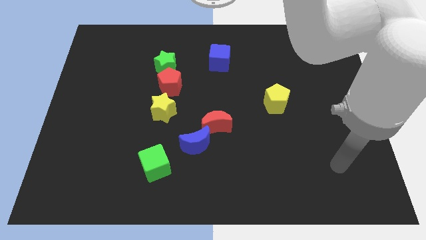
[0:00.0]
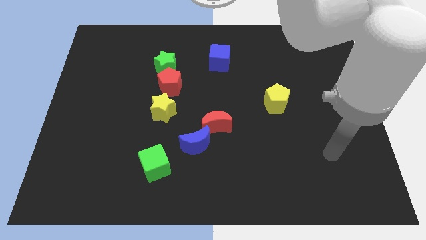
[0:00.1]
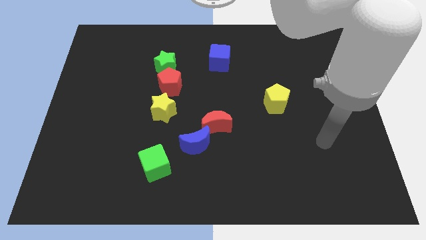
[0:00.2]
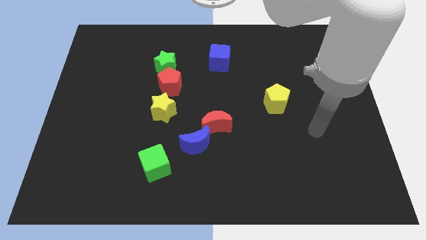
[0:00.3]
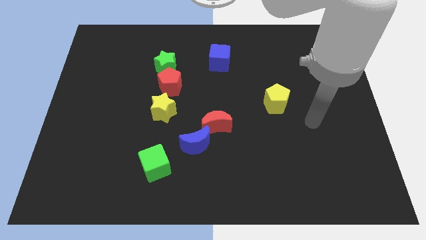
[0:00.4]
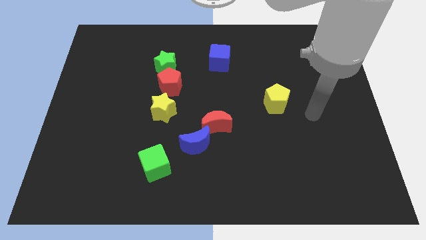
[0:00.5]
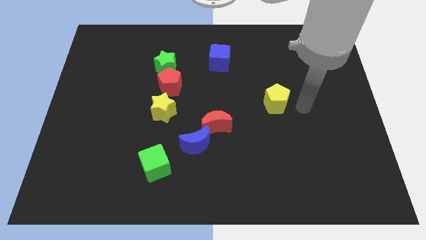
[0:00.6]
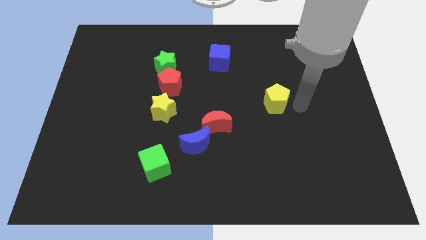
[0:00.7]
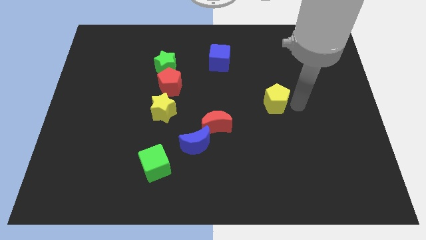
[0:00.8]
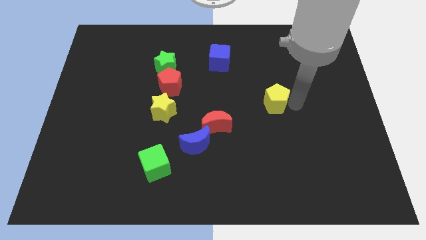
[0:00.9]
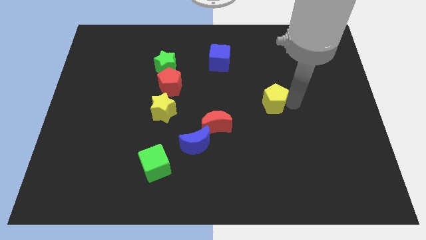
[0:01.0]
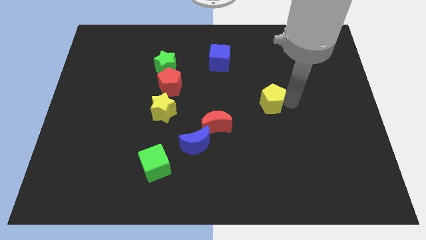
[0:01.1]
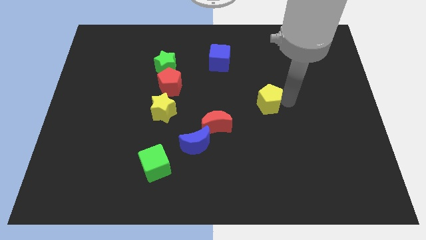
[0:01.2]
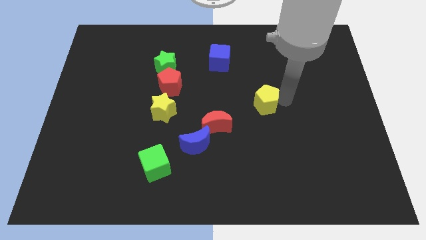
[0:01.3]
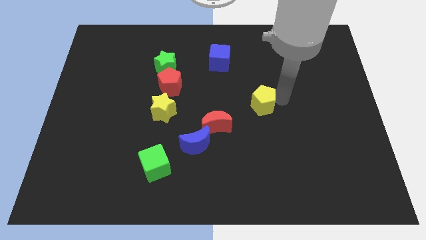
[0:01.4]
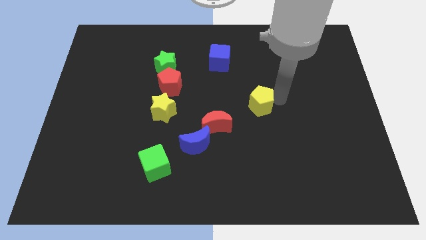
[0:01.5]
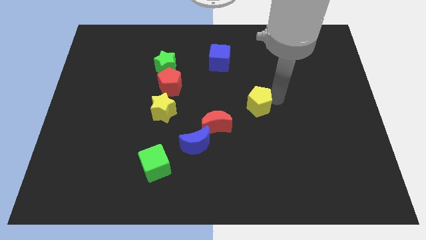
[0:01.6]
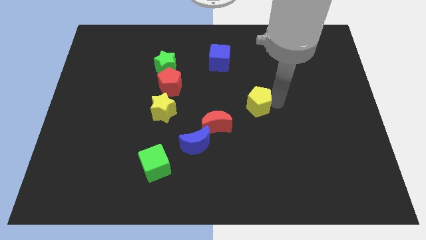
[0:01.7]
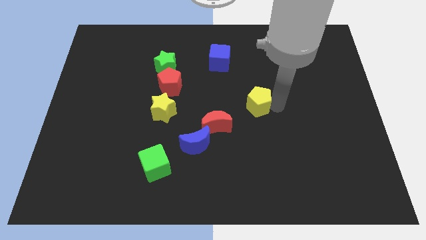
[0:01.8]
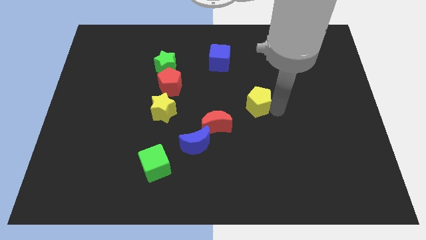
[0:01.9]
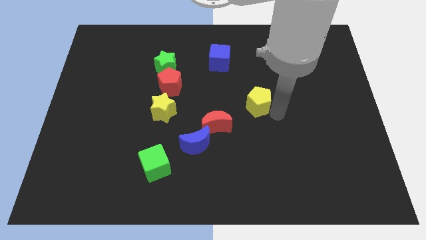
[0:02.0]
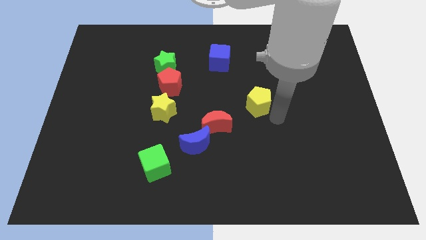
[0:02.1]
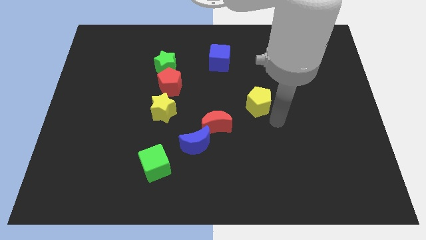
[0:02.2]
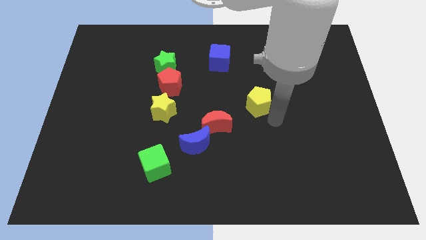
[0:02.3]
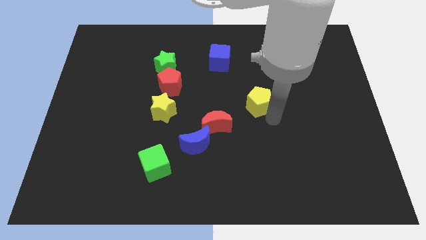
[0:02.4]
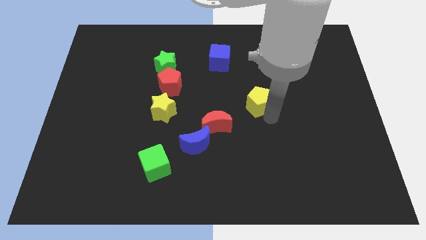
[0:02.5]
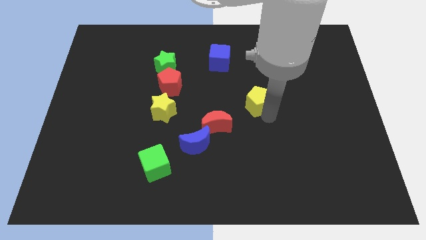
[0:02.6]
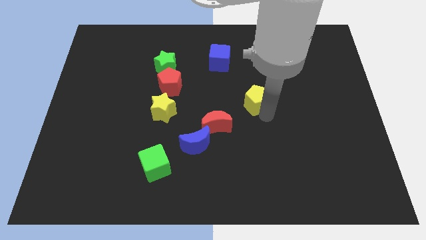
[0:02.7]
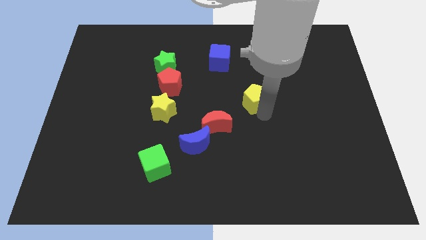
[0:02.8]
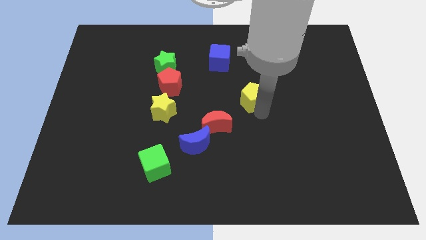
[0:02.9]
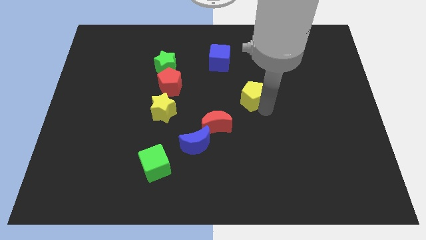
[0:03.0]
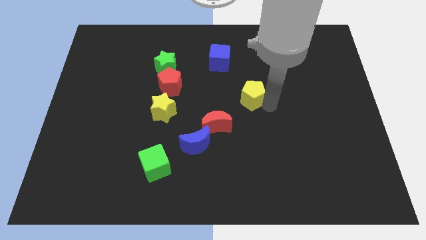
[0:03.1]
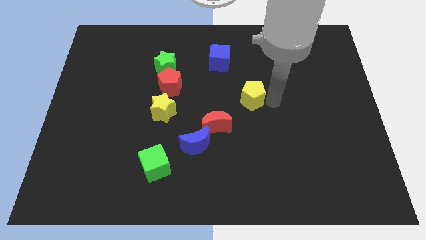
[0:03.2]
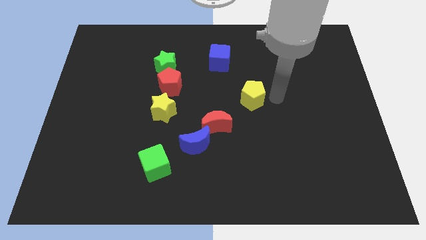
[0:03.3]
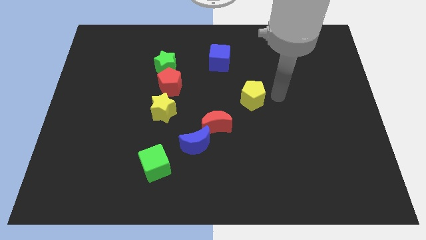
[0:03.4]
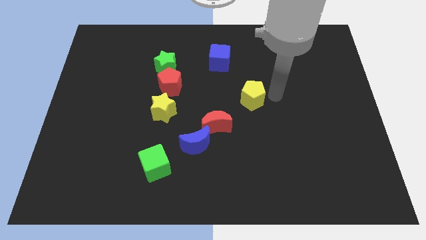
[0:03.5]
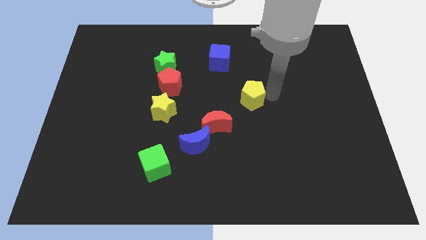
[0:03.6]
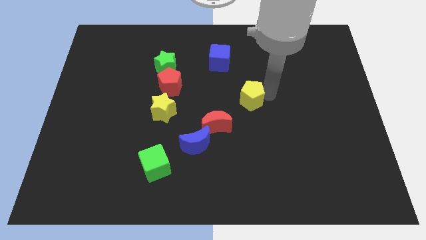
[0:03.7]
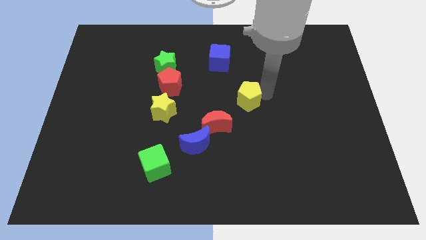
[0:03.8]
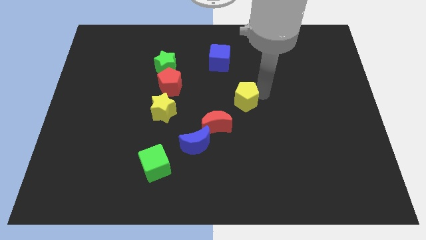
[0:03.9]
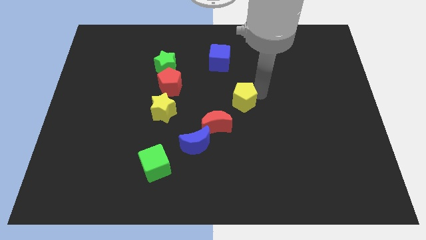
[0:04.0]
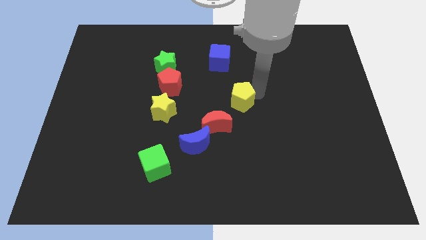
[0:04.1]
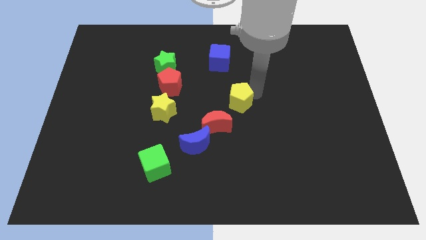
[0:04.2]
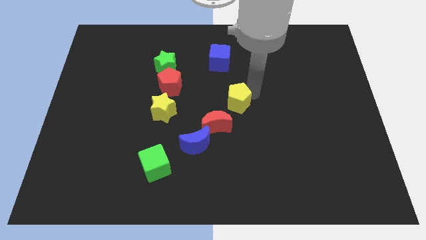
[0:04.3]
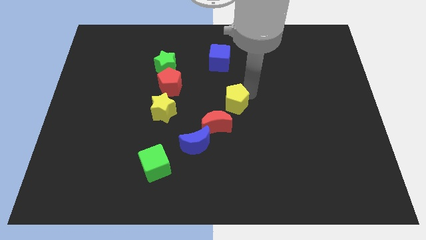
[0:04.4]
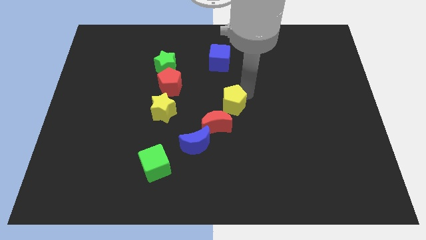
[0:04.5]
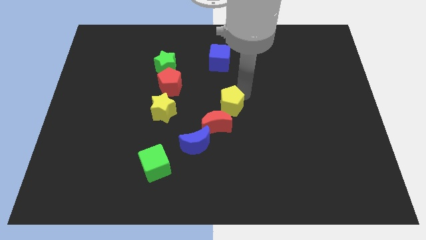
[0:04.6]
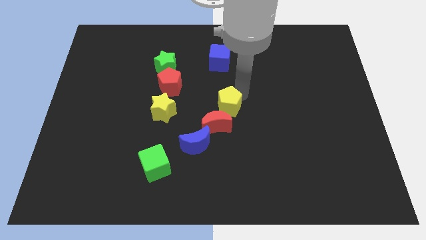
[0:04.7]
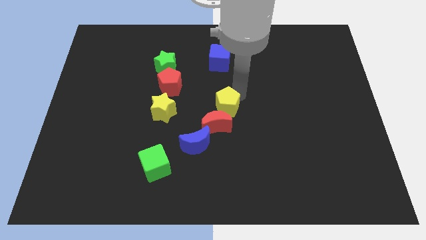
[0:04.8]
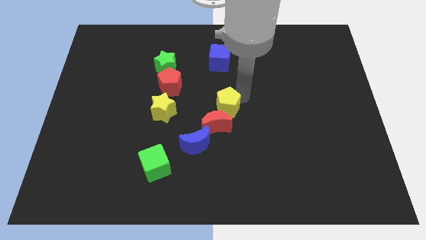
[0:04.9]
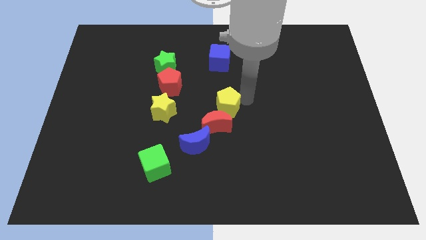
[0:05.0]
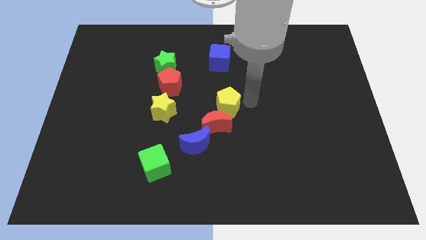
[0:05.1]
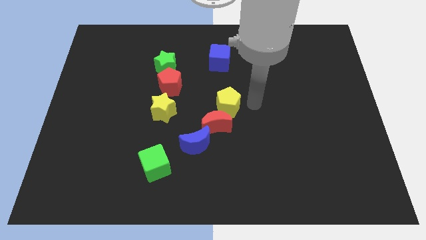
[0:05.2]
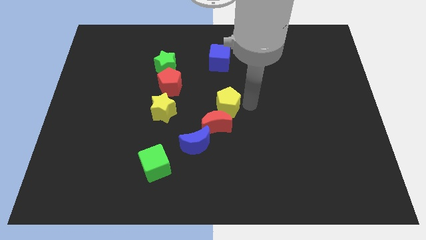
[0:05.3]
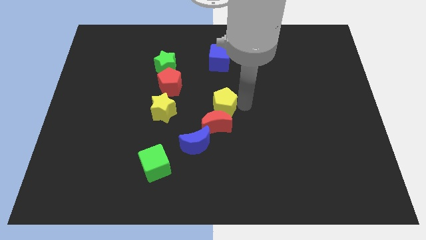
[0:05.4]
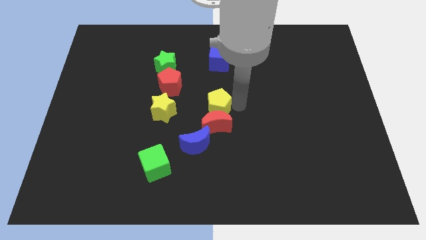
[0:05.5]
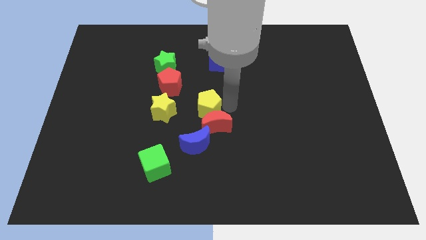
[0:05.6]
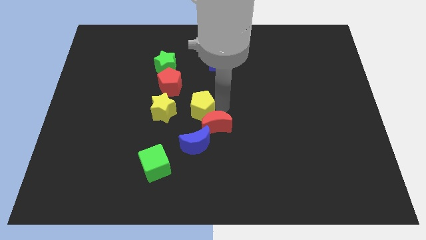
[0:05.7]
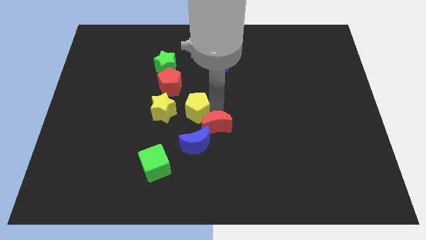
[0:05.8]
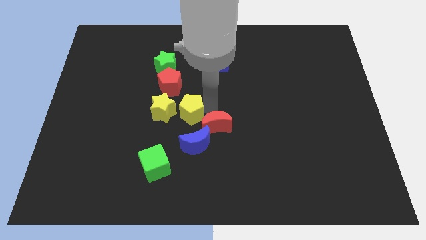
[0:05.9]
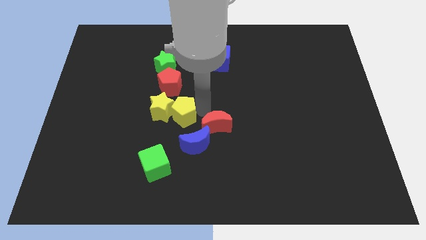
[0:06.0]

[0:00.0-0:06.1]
put the yellow pentagon close to the yellow star

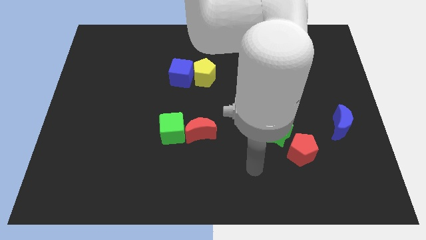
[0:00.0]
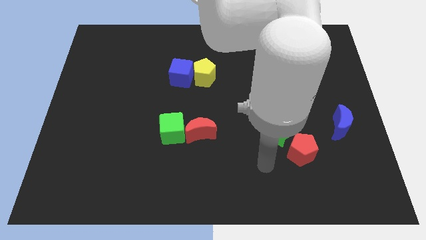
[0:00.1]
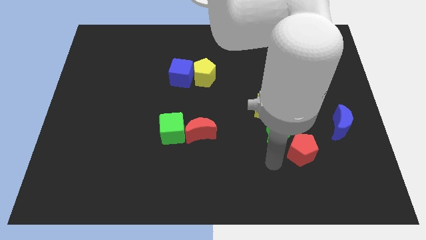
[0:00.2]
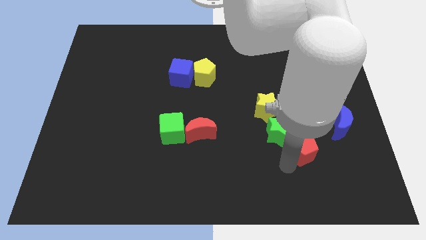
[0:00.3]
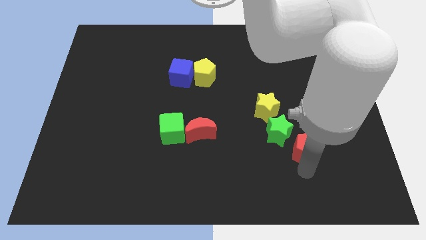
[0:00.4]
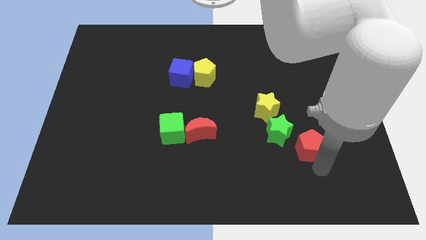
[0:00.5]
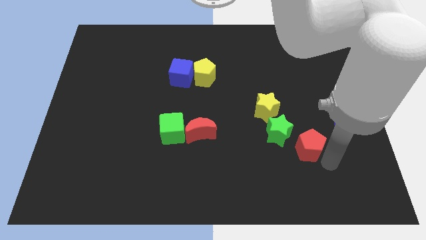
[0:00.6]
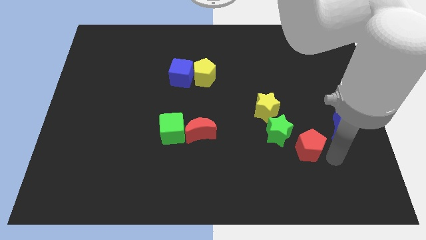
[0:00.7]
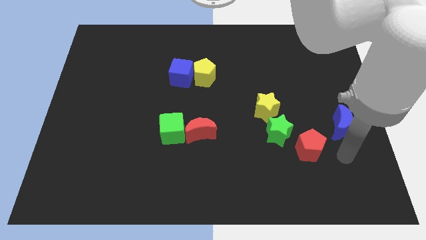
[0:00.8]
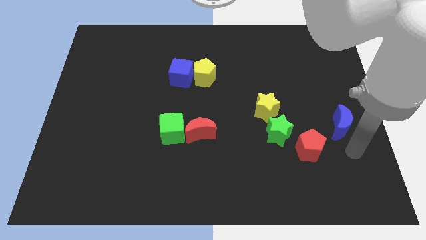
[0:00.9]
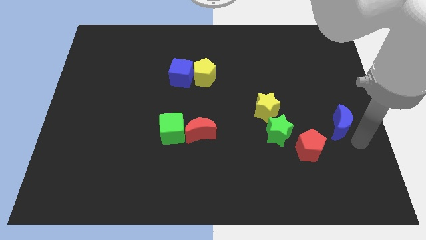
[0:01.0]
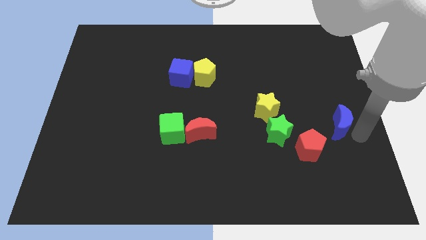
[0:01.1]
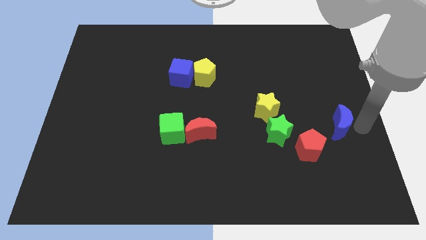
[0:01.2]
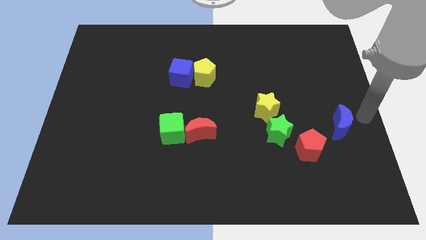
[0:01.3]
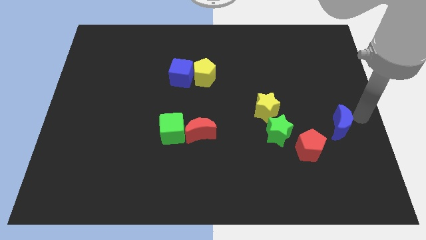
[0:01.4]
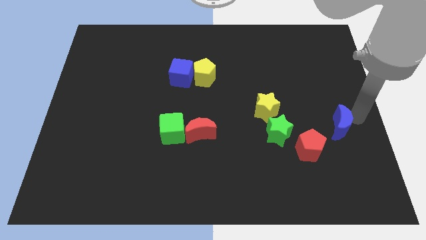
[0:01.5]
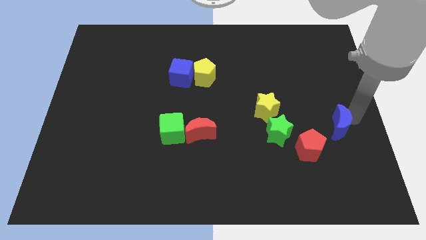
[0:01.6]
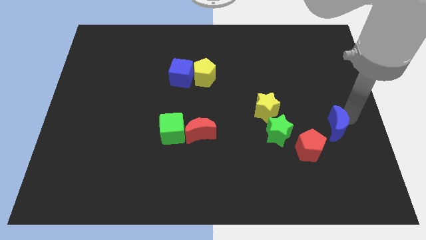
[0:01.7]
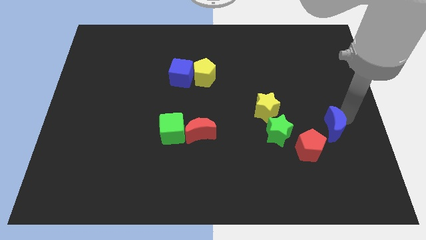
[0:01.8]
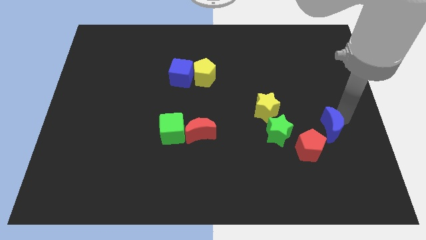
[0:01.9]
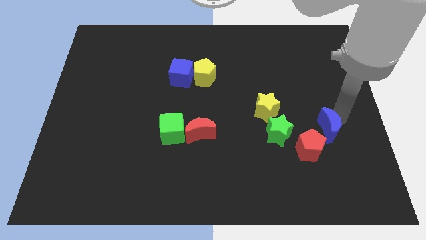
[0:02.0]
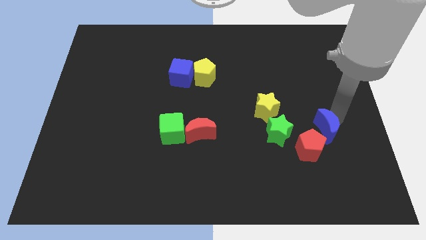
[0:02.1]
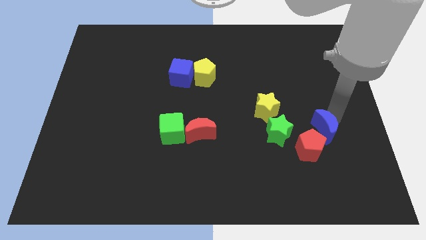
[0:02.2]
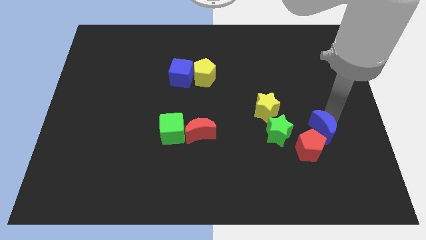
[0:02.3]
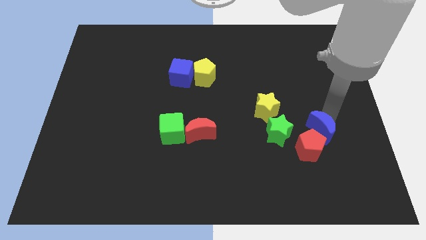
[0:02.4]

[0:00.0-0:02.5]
slide the blue moon towards the red pentagon
